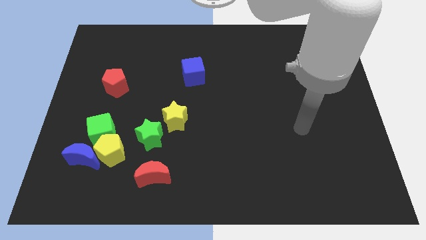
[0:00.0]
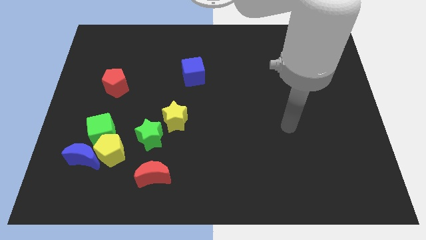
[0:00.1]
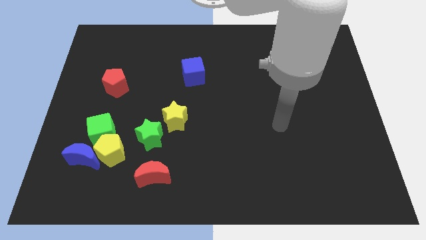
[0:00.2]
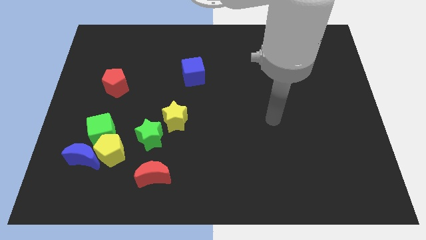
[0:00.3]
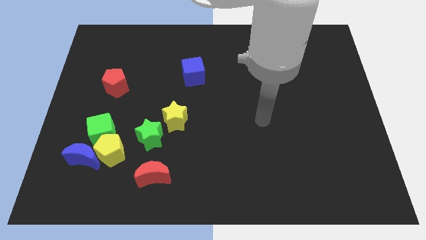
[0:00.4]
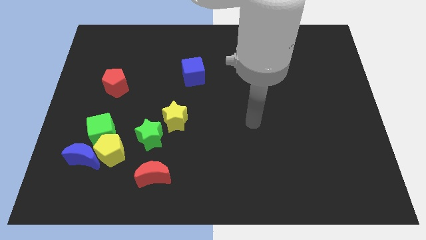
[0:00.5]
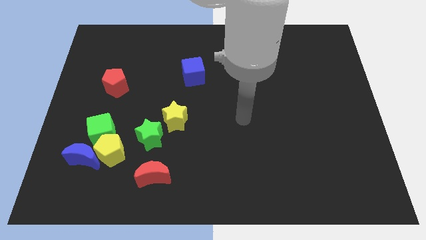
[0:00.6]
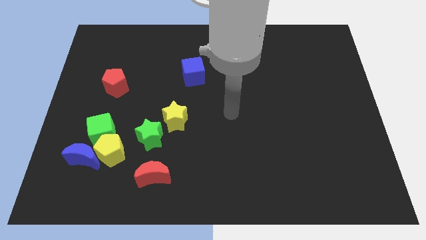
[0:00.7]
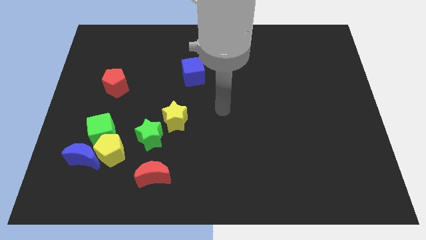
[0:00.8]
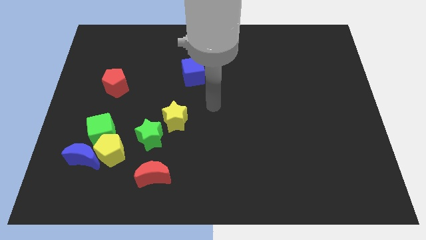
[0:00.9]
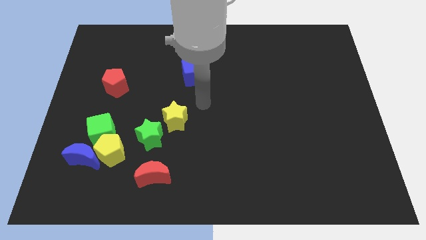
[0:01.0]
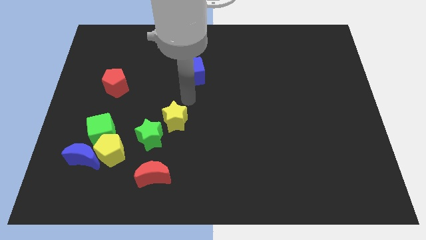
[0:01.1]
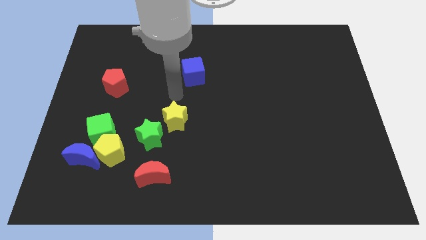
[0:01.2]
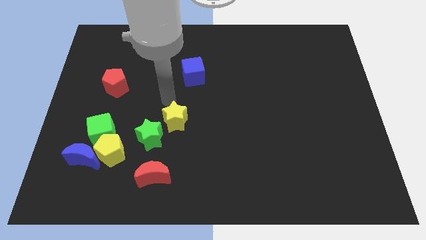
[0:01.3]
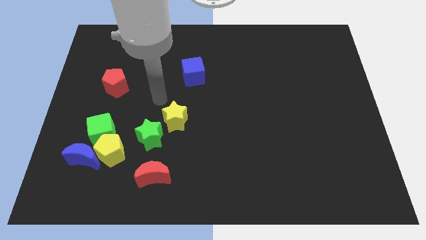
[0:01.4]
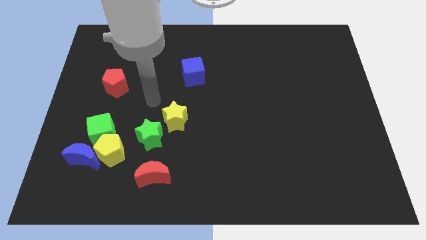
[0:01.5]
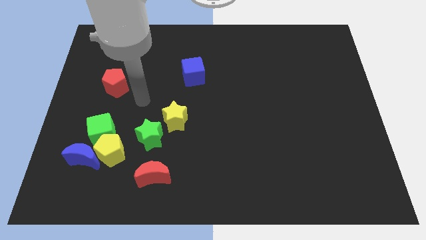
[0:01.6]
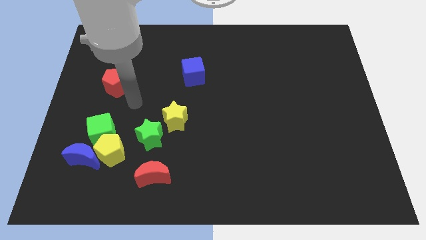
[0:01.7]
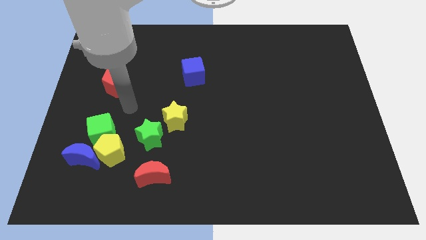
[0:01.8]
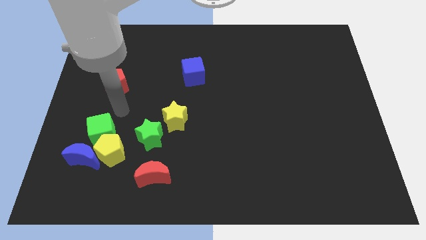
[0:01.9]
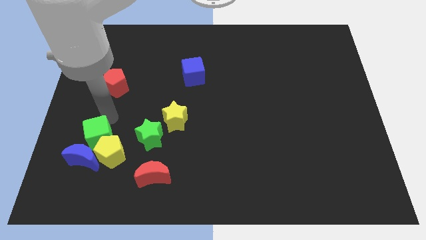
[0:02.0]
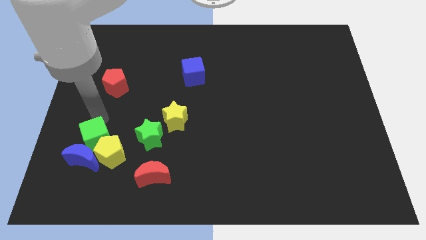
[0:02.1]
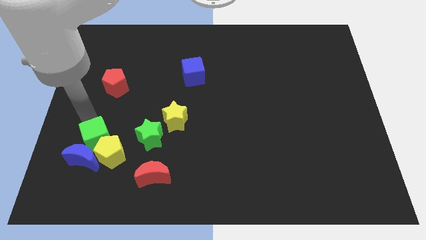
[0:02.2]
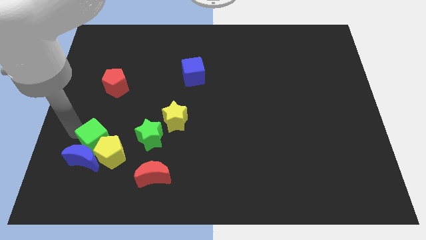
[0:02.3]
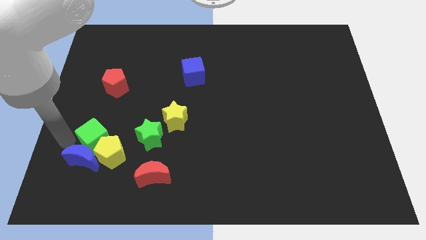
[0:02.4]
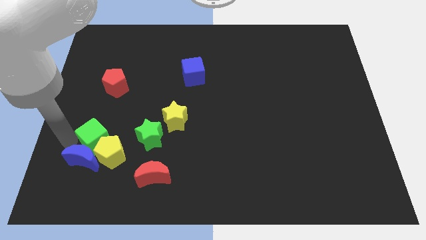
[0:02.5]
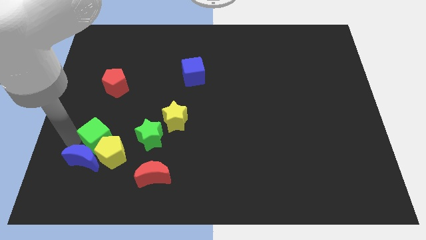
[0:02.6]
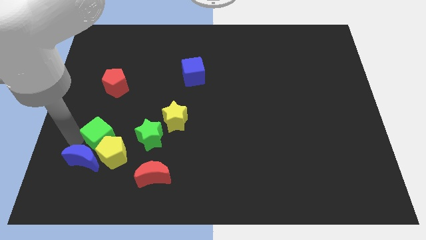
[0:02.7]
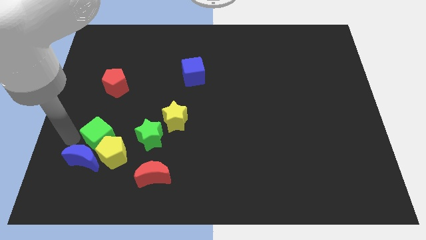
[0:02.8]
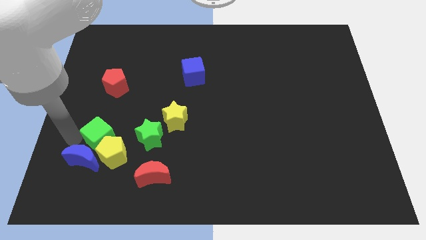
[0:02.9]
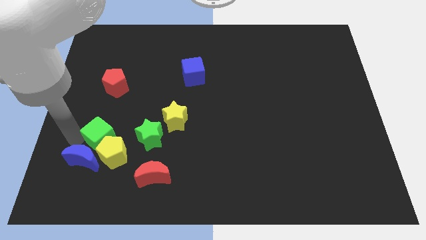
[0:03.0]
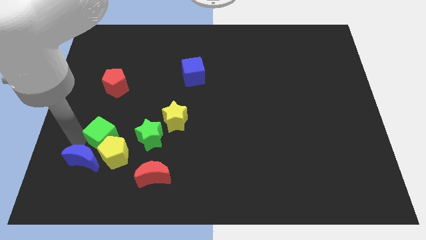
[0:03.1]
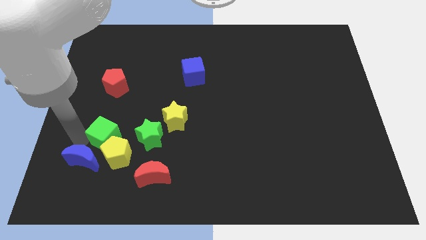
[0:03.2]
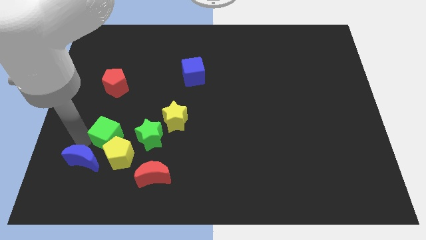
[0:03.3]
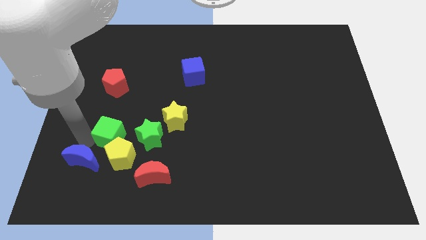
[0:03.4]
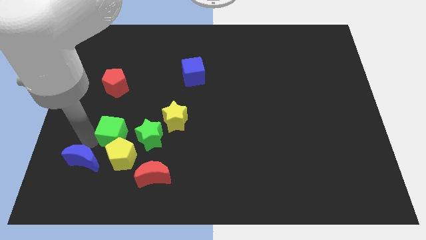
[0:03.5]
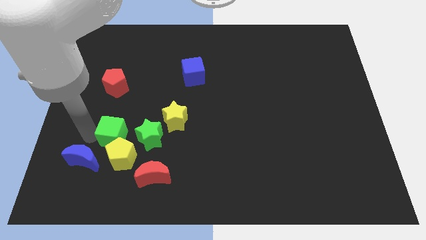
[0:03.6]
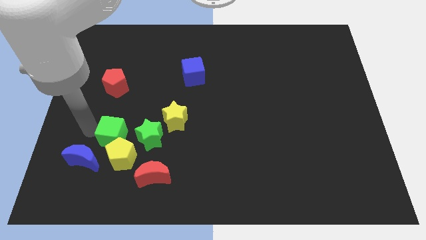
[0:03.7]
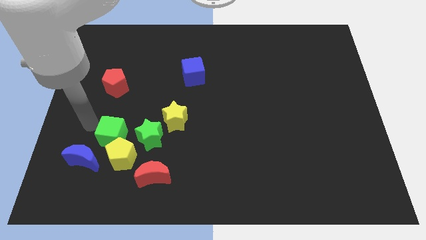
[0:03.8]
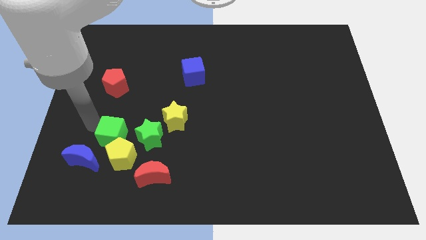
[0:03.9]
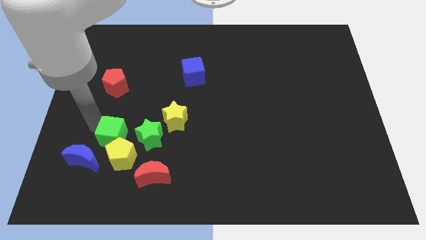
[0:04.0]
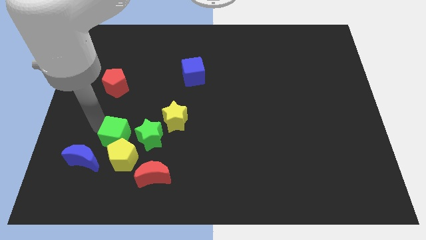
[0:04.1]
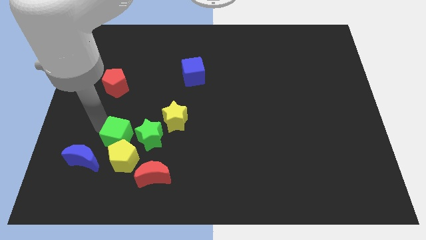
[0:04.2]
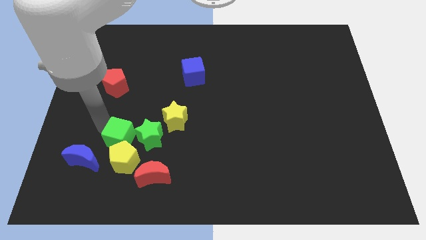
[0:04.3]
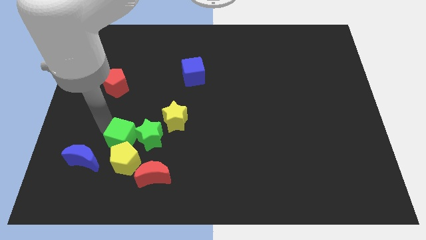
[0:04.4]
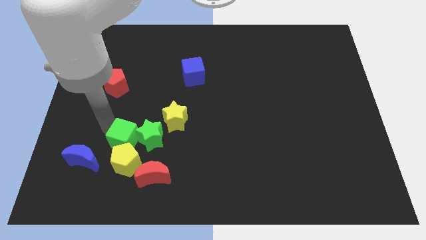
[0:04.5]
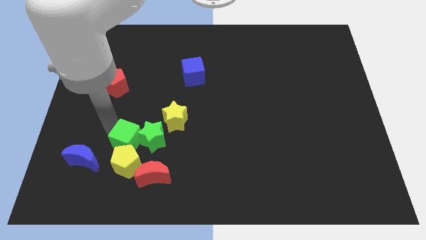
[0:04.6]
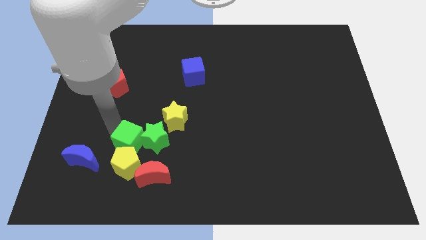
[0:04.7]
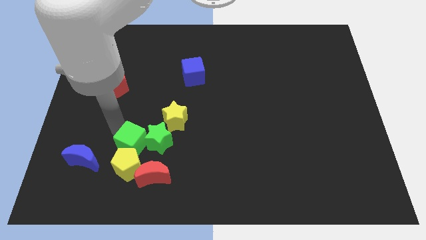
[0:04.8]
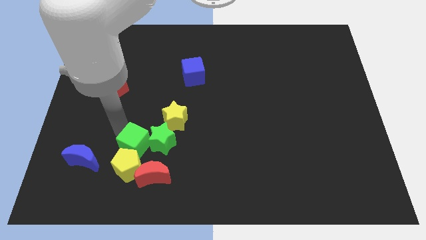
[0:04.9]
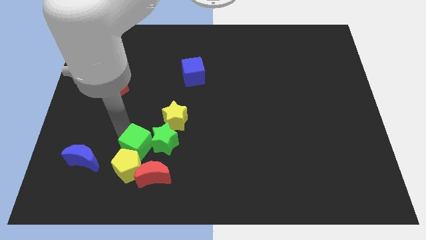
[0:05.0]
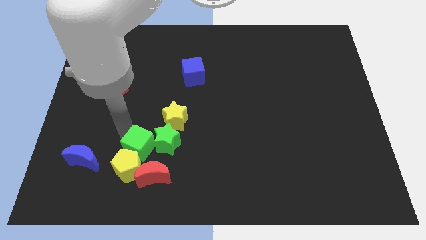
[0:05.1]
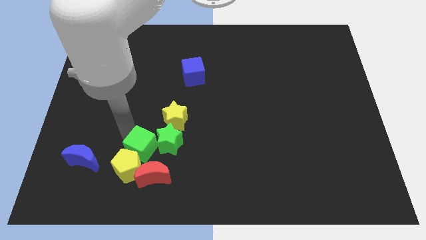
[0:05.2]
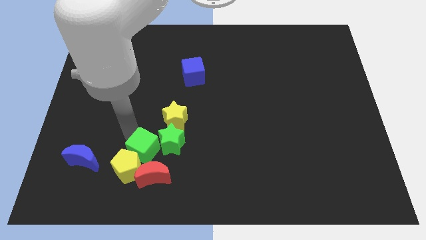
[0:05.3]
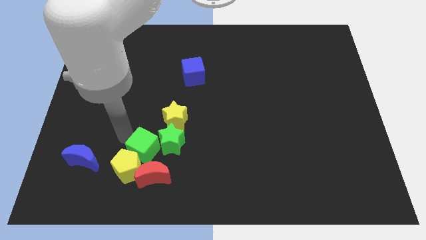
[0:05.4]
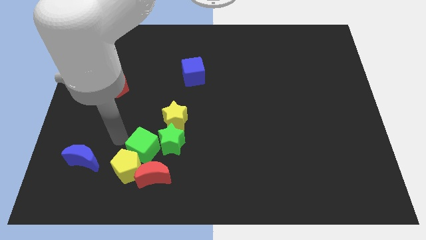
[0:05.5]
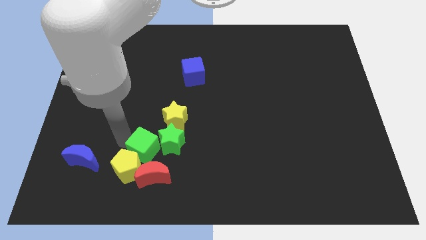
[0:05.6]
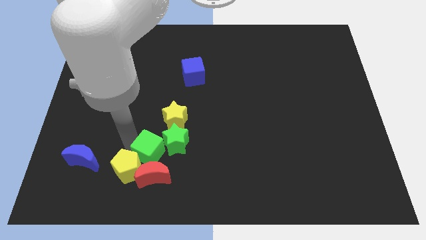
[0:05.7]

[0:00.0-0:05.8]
push the green cube to the bottom side of the yellow star

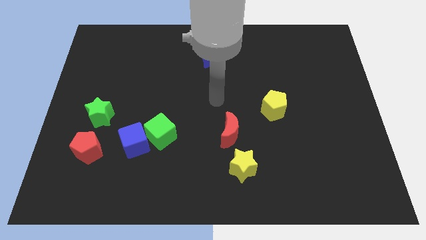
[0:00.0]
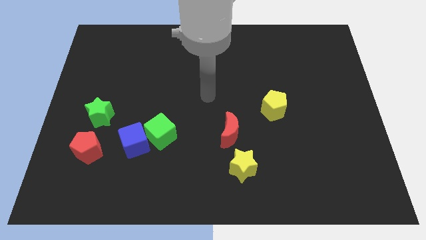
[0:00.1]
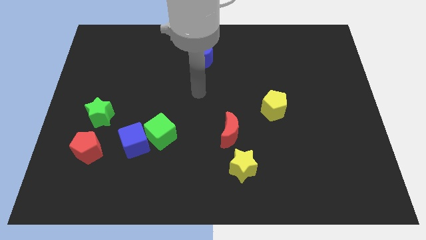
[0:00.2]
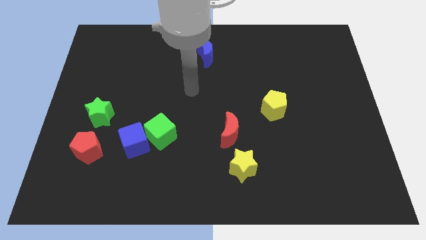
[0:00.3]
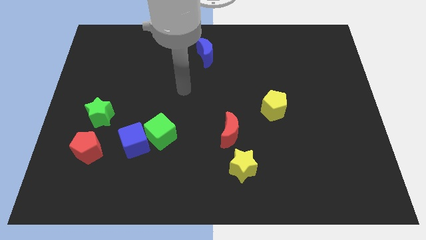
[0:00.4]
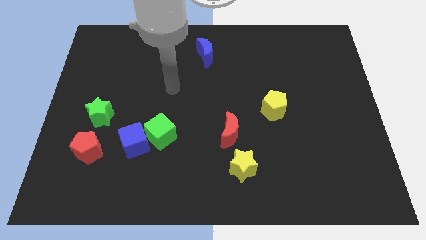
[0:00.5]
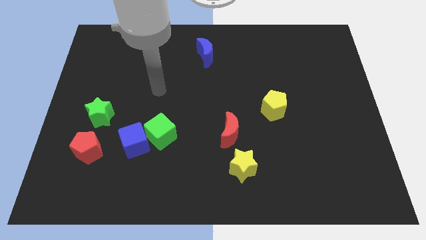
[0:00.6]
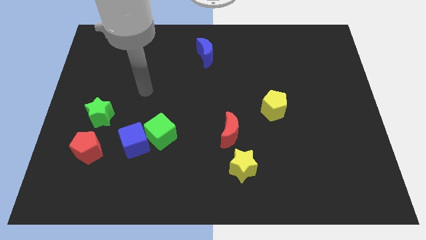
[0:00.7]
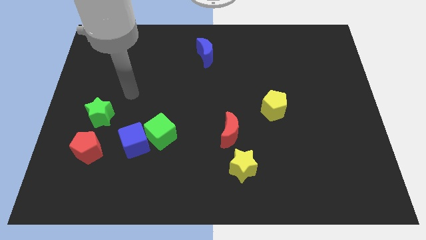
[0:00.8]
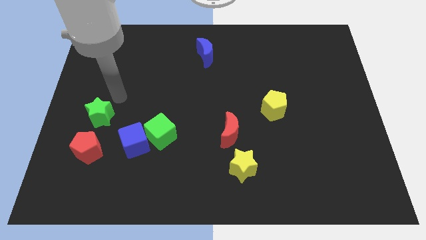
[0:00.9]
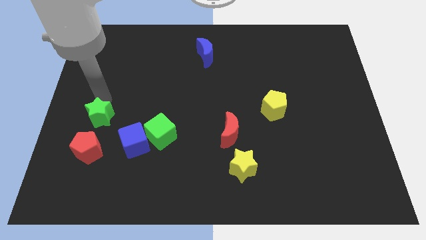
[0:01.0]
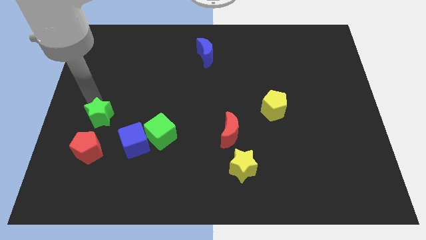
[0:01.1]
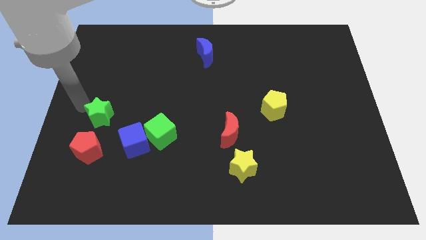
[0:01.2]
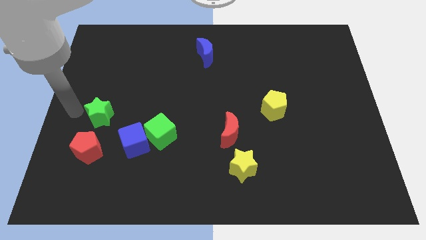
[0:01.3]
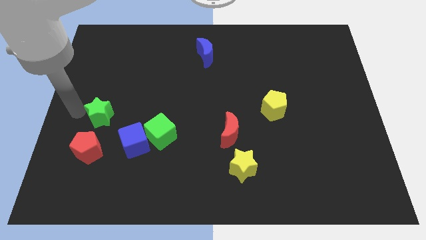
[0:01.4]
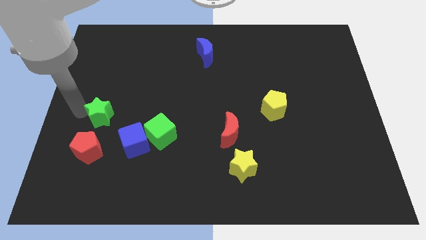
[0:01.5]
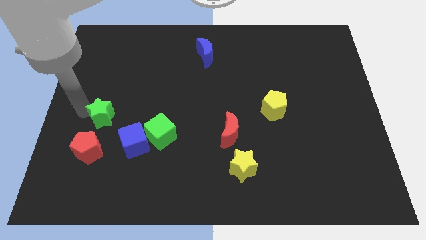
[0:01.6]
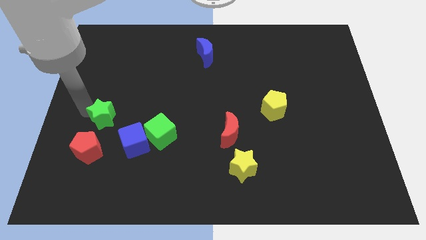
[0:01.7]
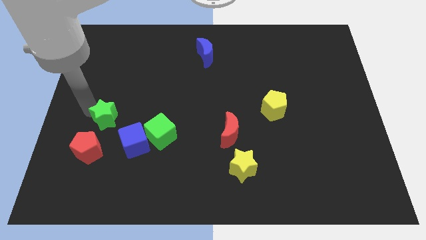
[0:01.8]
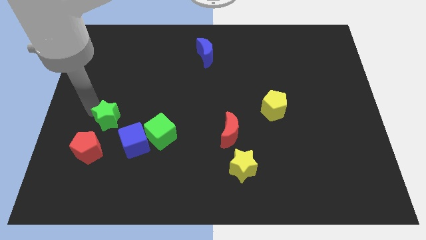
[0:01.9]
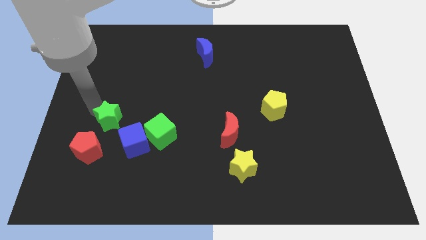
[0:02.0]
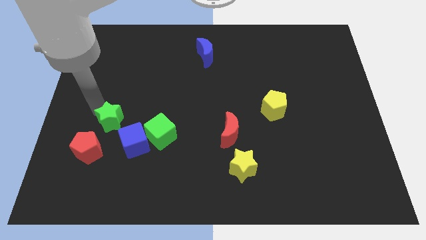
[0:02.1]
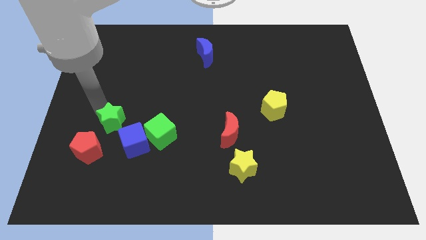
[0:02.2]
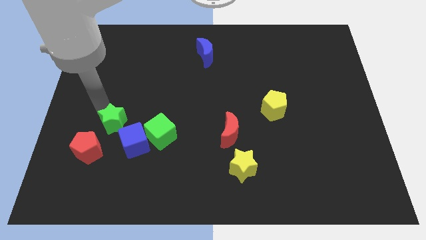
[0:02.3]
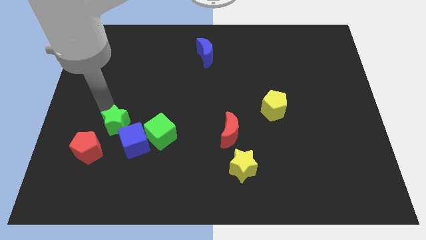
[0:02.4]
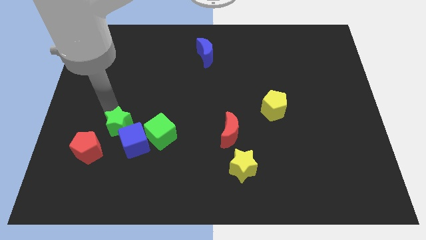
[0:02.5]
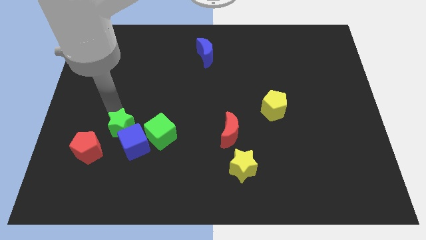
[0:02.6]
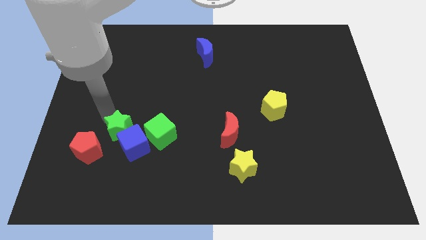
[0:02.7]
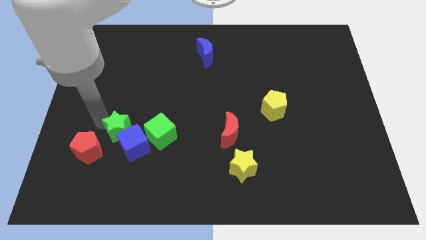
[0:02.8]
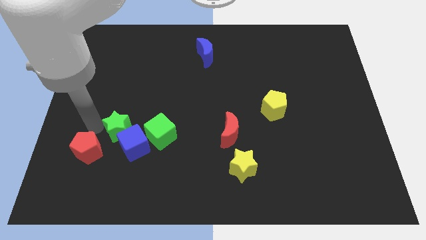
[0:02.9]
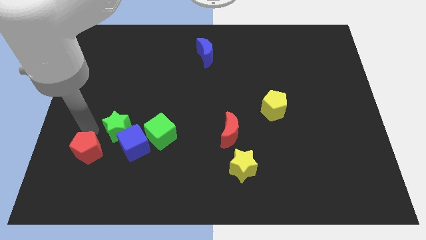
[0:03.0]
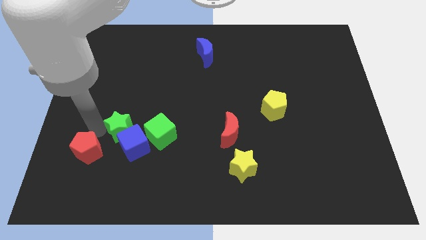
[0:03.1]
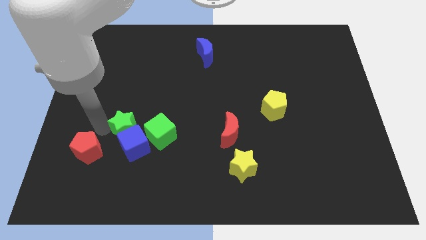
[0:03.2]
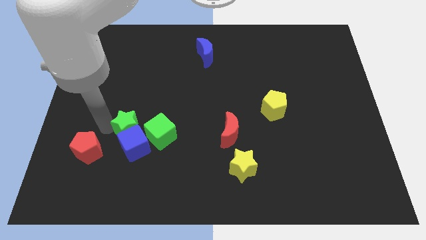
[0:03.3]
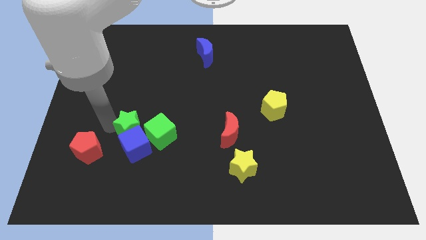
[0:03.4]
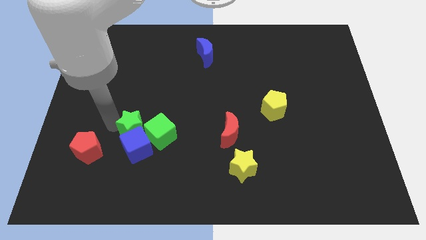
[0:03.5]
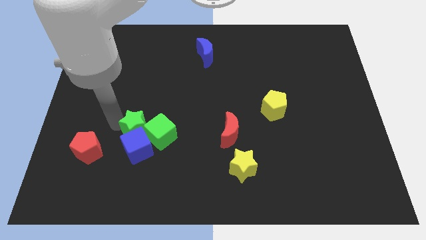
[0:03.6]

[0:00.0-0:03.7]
move the green star to the top right of the blue cube
